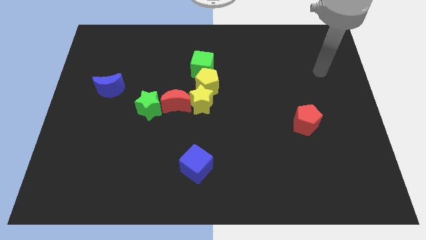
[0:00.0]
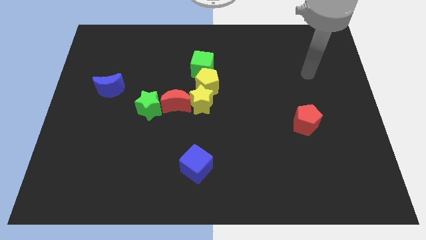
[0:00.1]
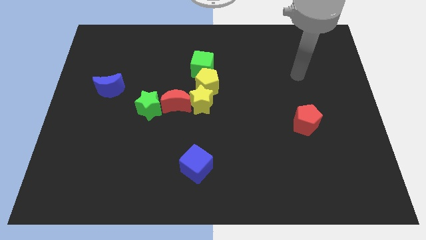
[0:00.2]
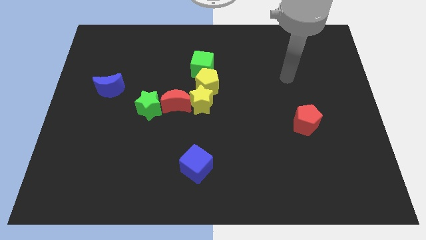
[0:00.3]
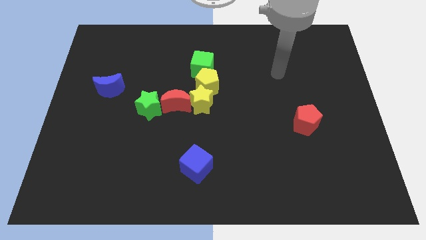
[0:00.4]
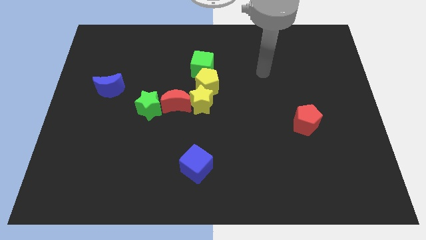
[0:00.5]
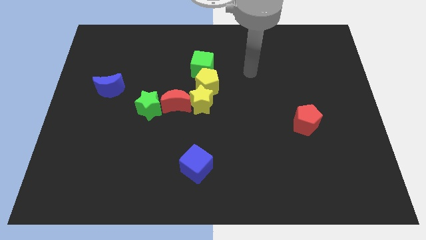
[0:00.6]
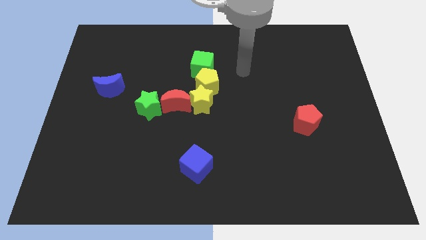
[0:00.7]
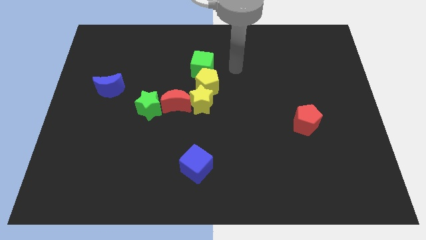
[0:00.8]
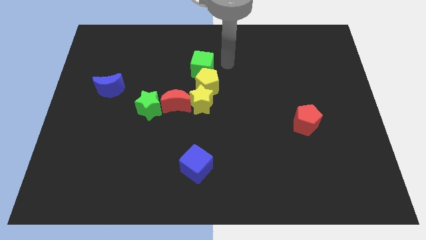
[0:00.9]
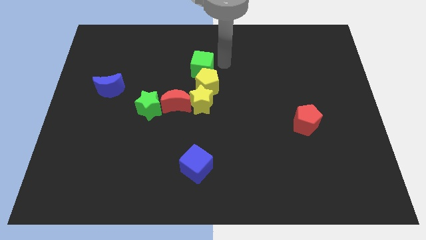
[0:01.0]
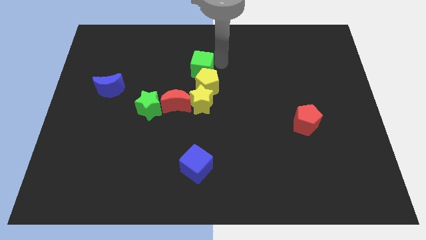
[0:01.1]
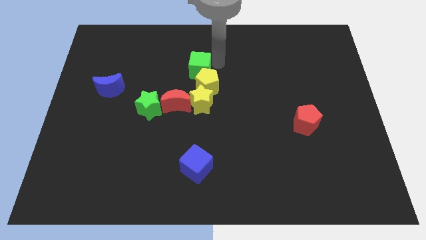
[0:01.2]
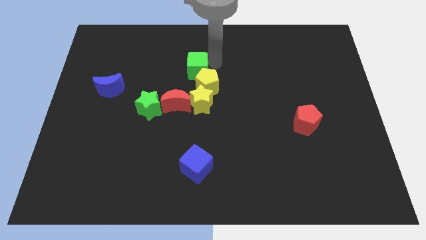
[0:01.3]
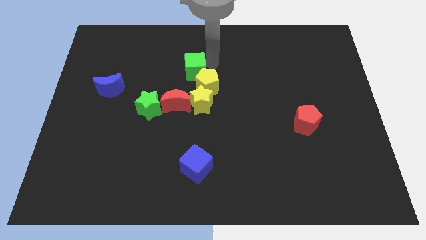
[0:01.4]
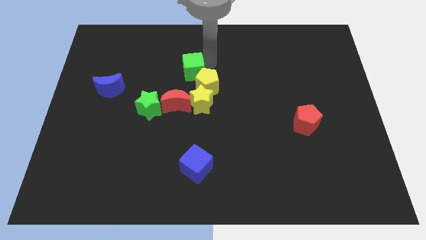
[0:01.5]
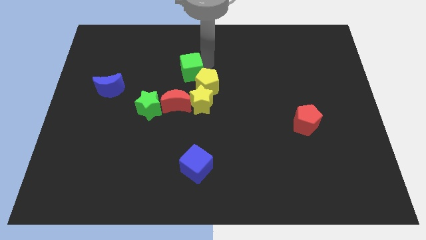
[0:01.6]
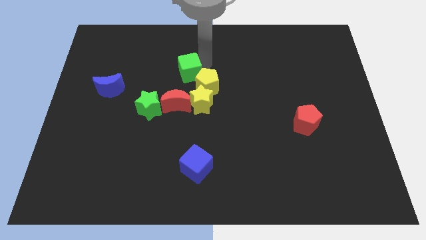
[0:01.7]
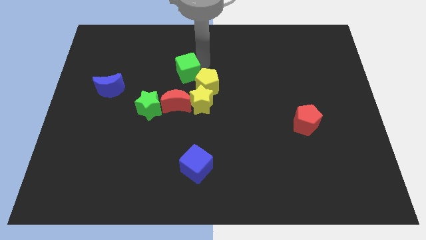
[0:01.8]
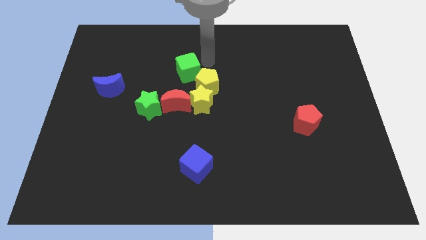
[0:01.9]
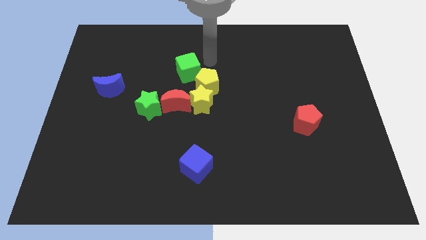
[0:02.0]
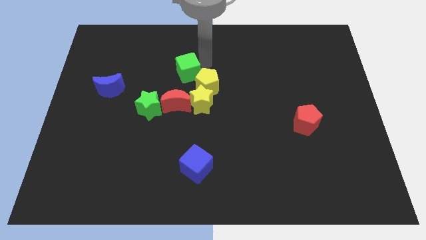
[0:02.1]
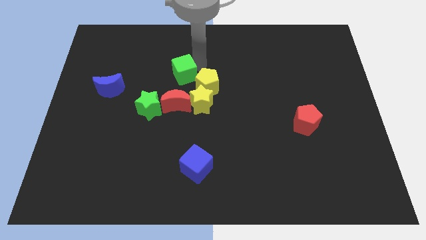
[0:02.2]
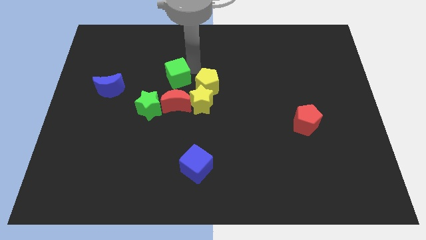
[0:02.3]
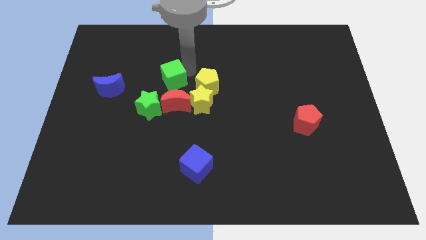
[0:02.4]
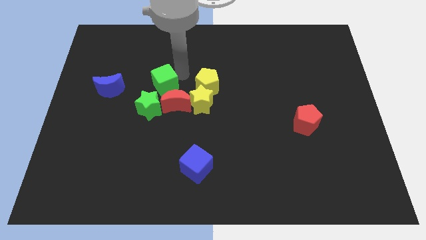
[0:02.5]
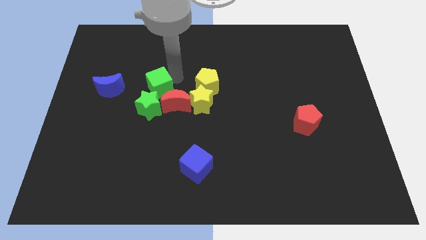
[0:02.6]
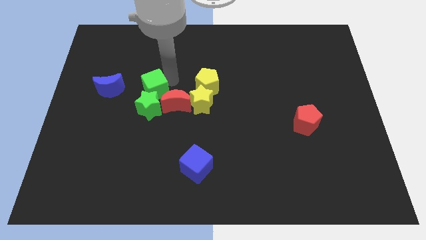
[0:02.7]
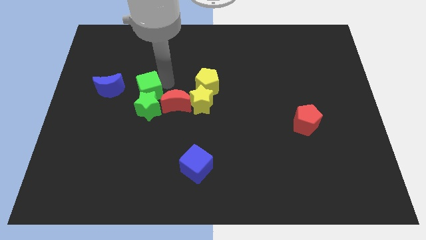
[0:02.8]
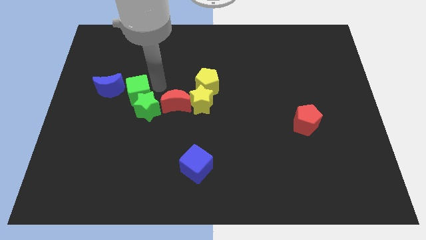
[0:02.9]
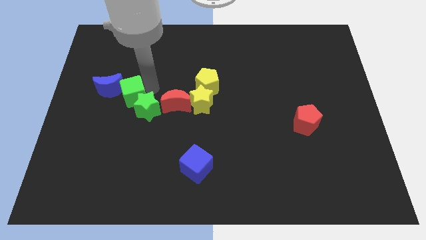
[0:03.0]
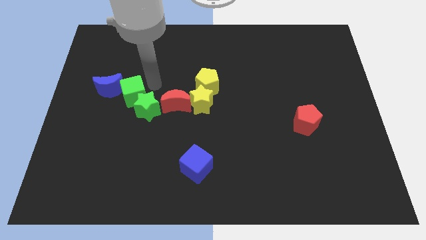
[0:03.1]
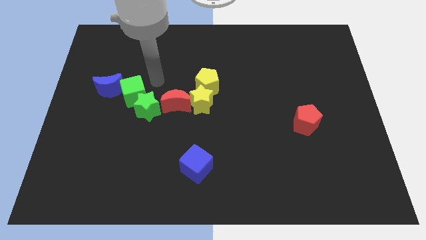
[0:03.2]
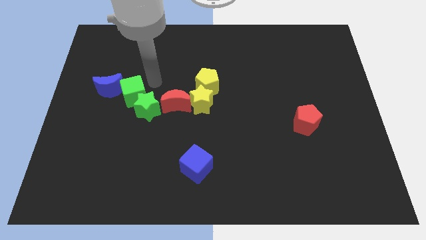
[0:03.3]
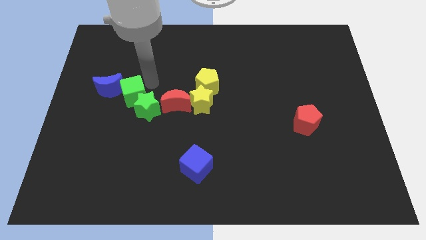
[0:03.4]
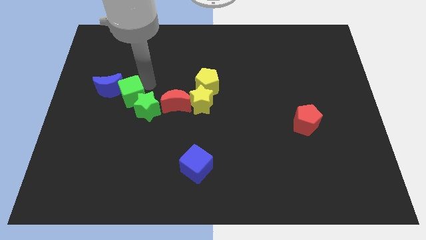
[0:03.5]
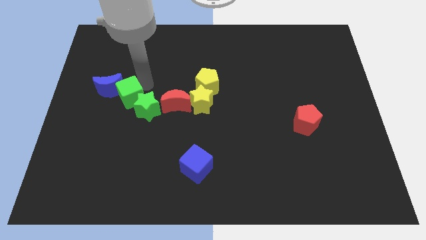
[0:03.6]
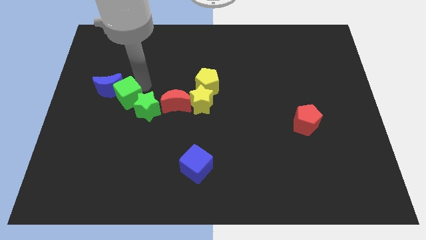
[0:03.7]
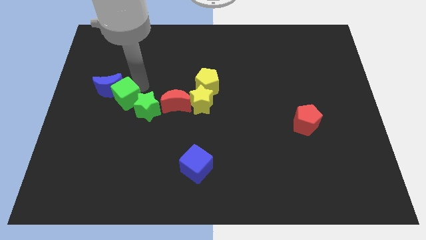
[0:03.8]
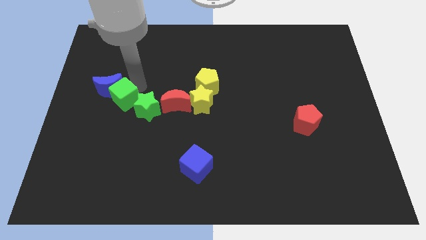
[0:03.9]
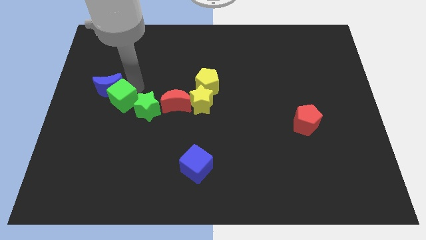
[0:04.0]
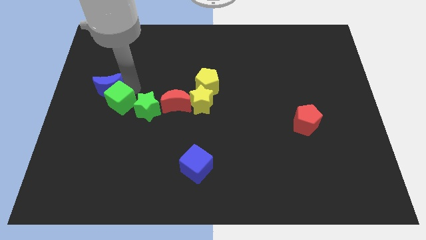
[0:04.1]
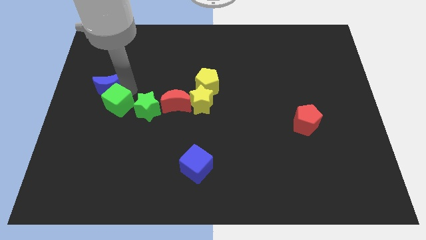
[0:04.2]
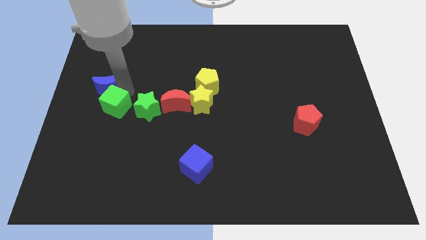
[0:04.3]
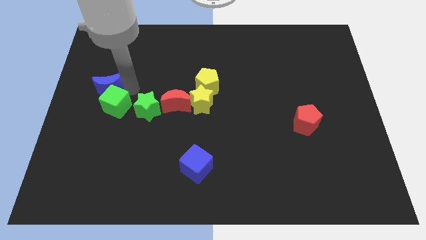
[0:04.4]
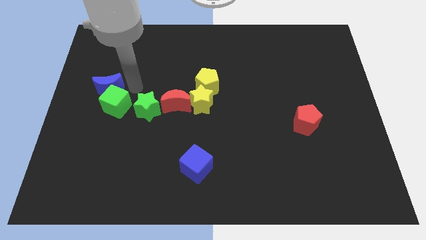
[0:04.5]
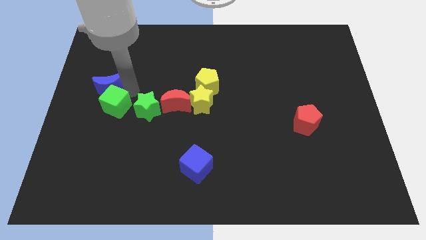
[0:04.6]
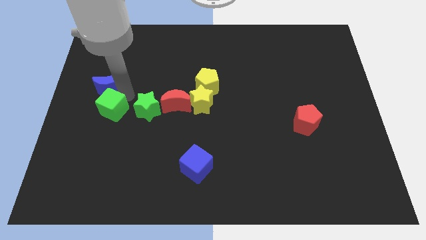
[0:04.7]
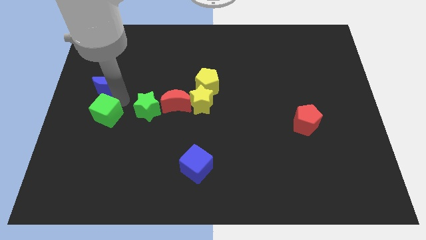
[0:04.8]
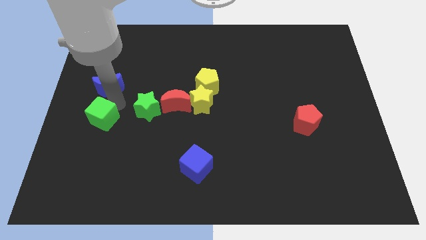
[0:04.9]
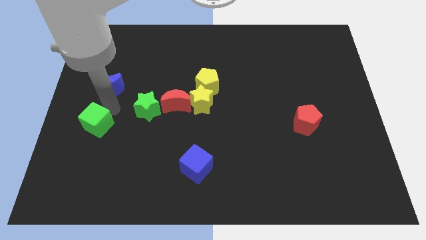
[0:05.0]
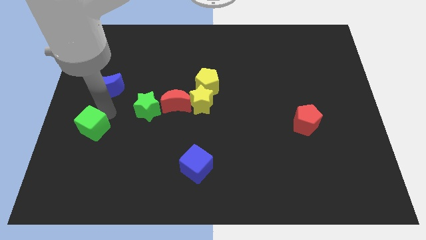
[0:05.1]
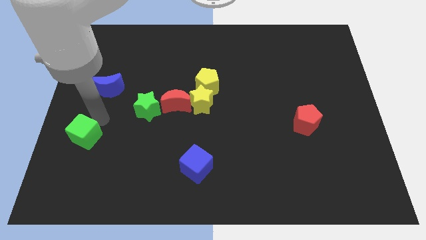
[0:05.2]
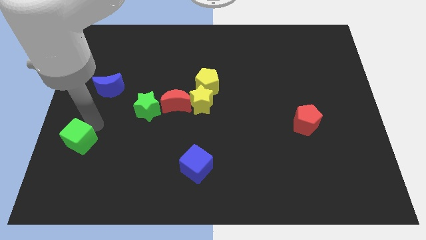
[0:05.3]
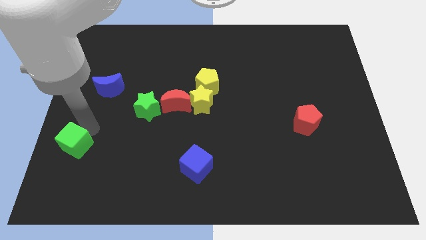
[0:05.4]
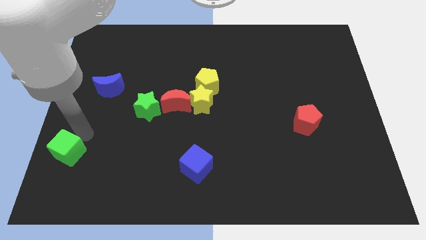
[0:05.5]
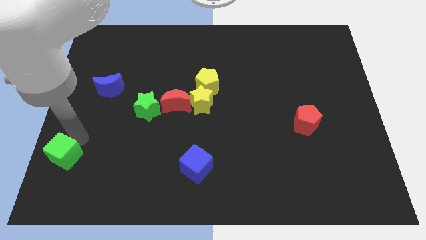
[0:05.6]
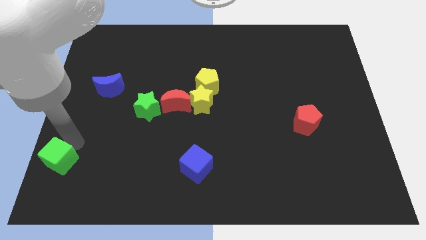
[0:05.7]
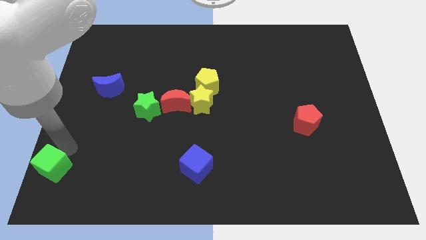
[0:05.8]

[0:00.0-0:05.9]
move the green cube to the bottom left of the board

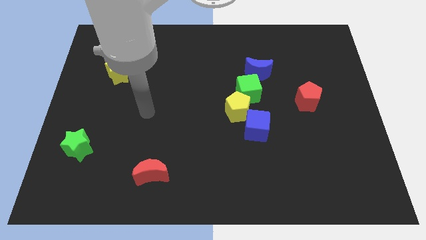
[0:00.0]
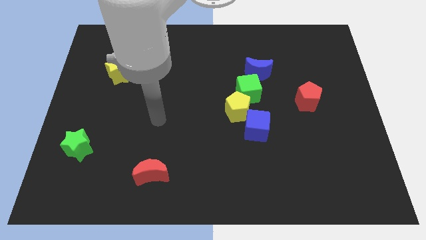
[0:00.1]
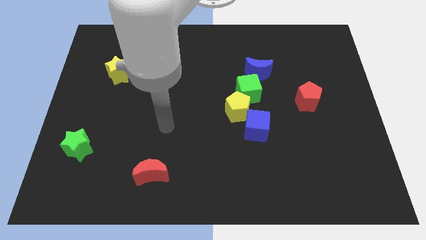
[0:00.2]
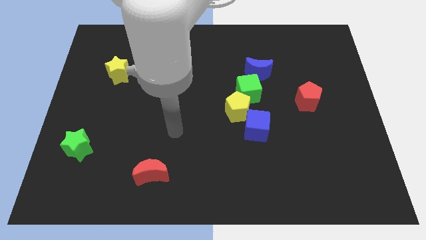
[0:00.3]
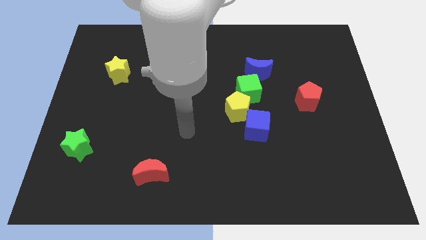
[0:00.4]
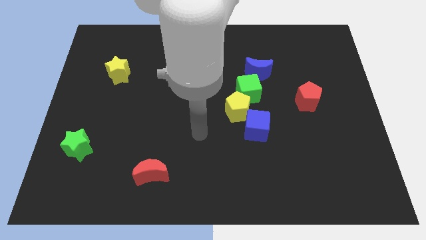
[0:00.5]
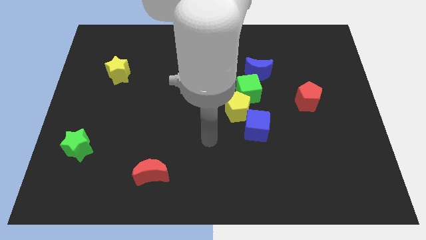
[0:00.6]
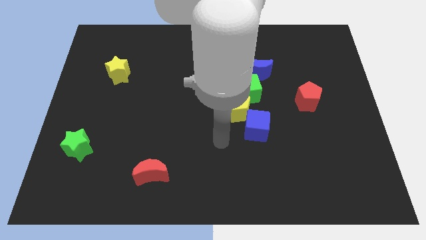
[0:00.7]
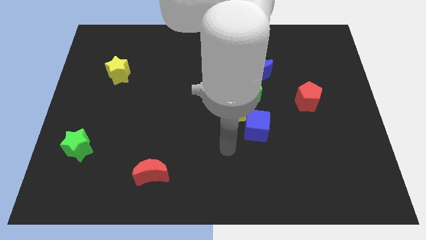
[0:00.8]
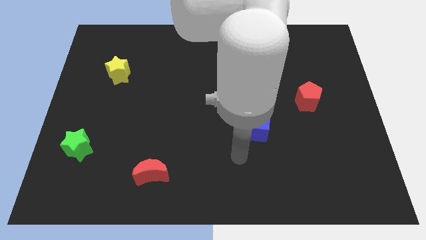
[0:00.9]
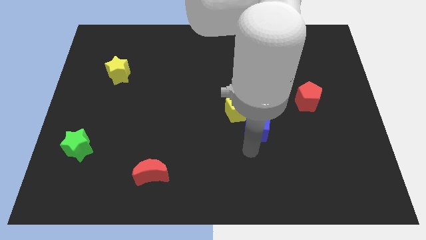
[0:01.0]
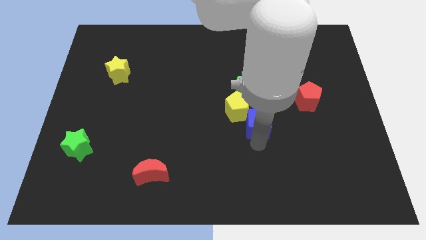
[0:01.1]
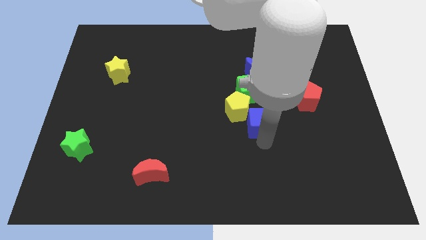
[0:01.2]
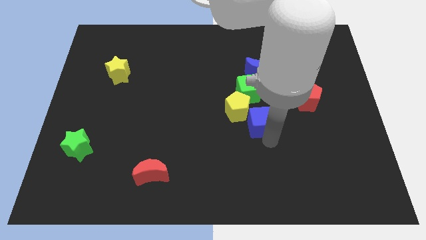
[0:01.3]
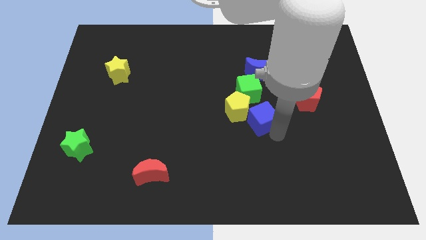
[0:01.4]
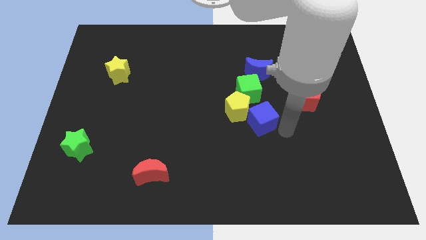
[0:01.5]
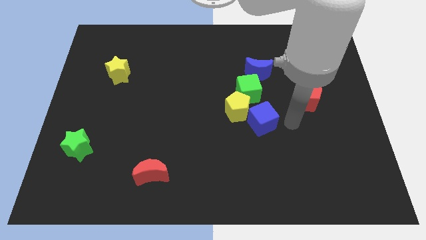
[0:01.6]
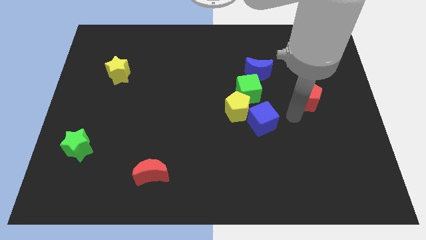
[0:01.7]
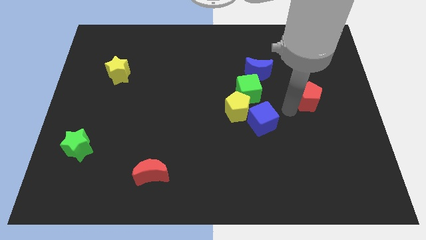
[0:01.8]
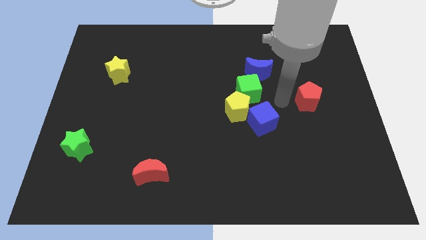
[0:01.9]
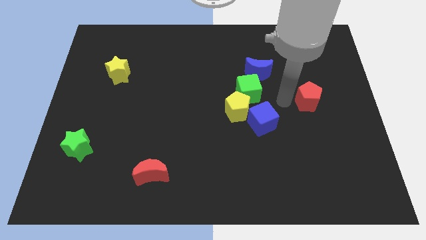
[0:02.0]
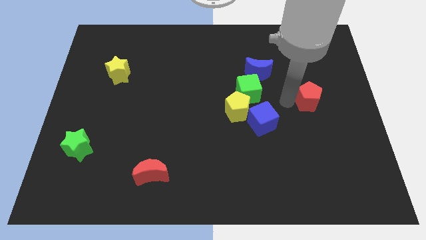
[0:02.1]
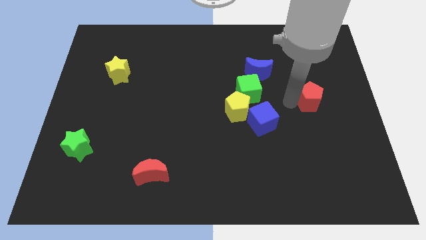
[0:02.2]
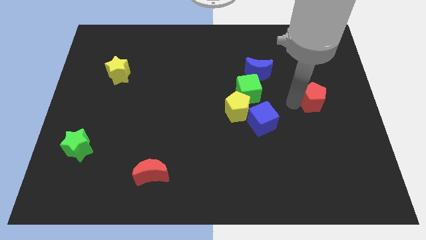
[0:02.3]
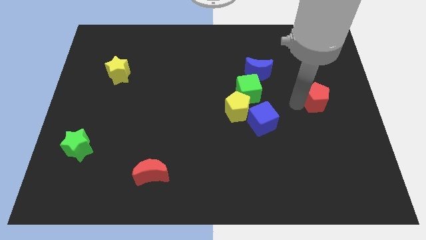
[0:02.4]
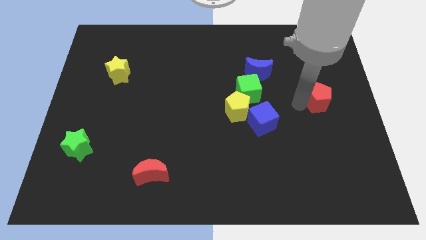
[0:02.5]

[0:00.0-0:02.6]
put the red pentagon to the right side
